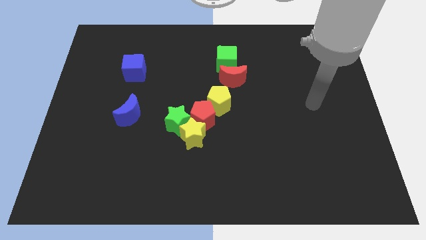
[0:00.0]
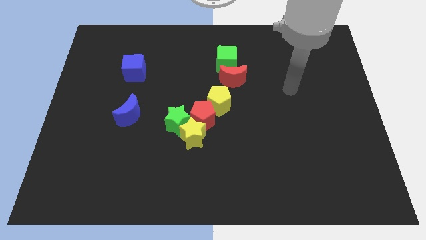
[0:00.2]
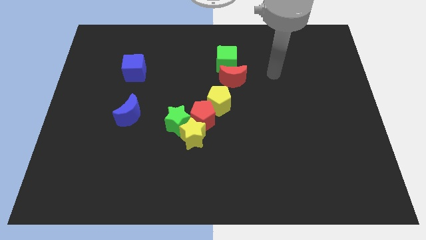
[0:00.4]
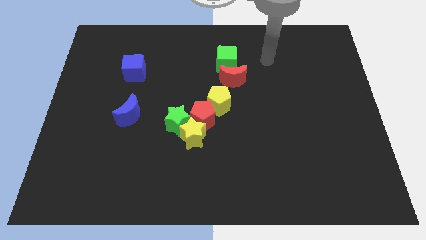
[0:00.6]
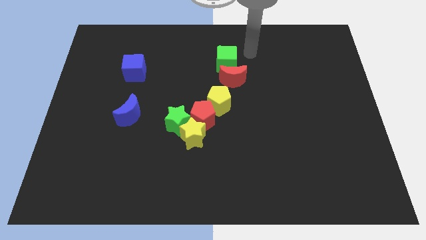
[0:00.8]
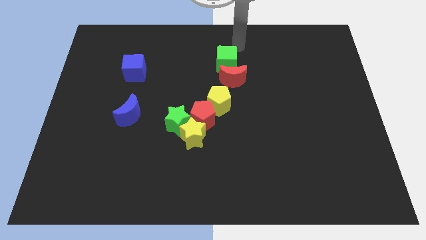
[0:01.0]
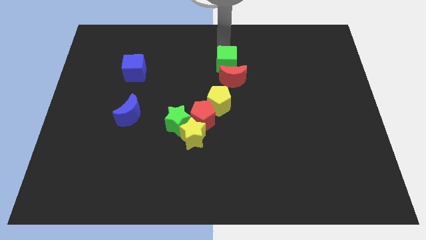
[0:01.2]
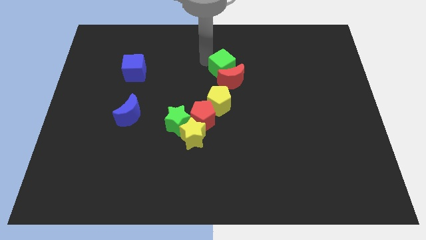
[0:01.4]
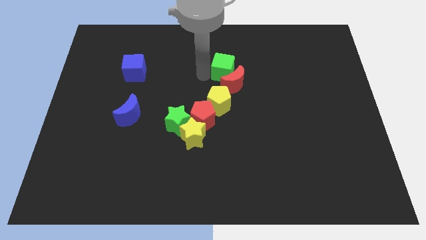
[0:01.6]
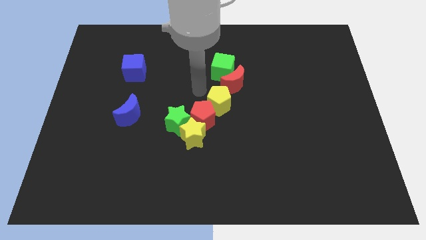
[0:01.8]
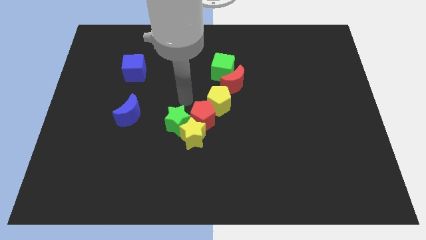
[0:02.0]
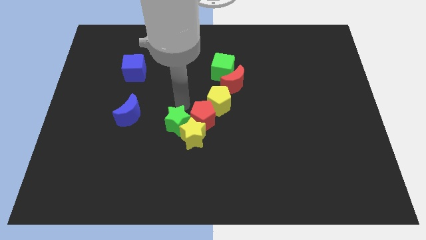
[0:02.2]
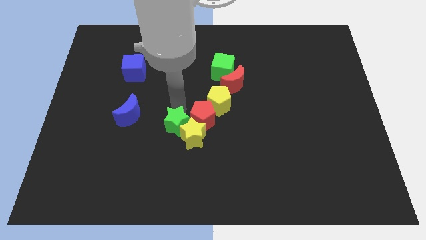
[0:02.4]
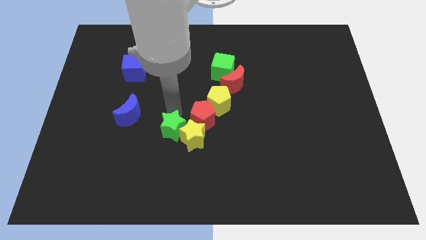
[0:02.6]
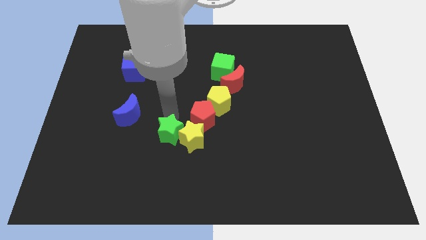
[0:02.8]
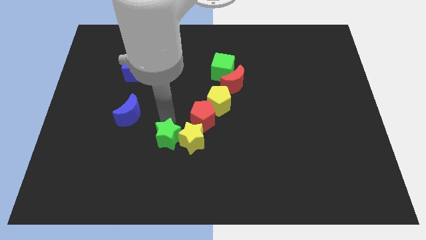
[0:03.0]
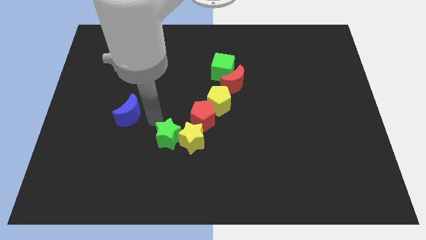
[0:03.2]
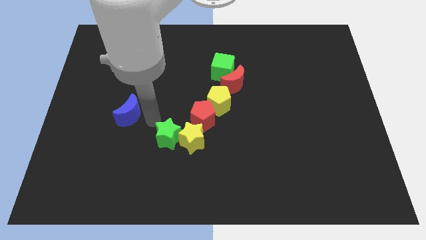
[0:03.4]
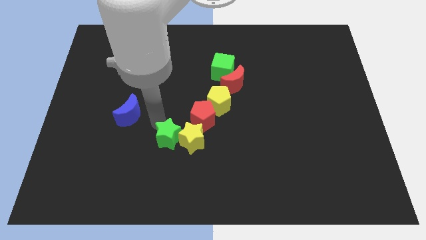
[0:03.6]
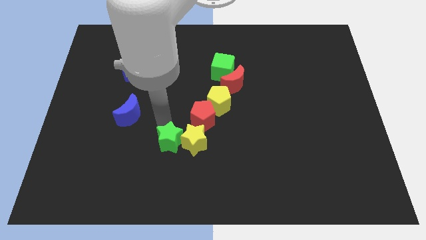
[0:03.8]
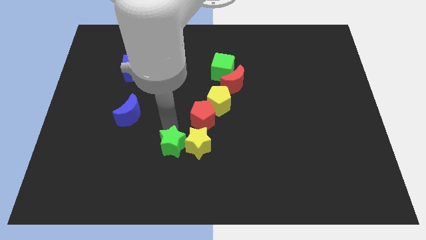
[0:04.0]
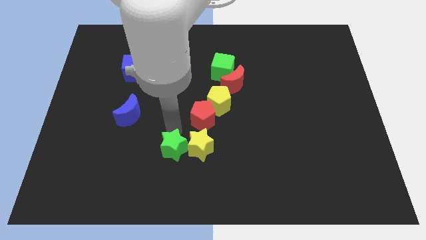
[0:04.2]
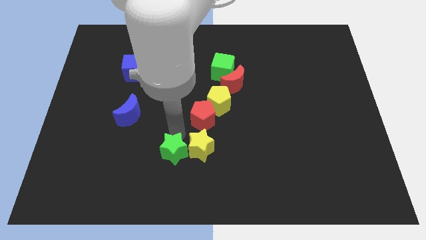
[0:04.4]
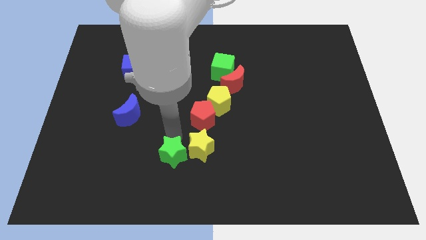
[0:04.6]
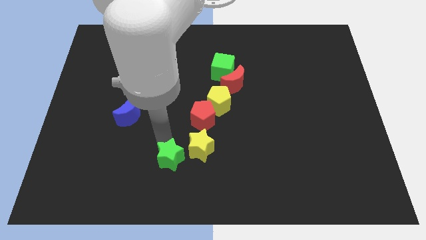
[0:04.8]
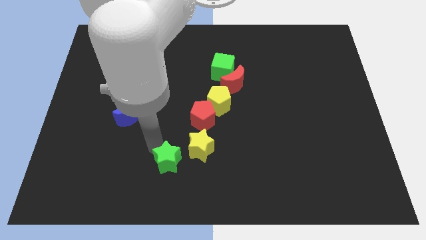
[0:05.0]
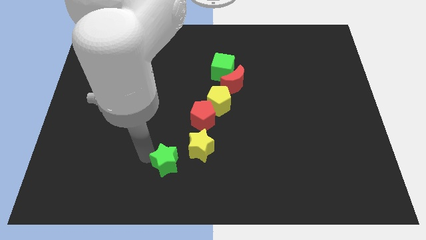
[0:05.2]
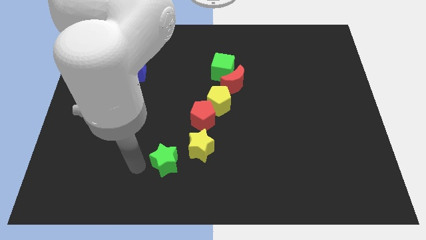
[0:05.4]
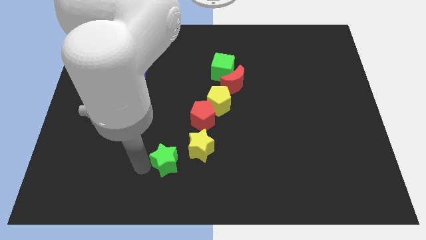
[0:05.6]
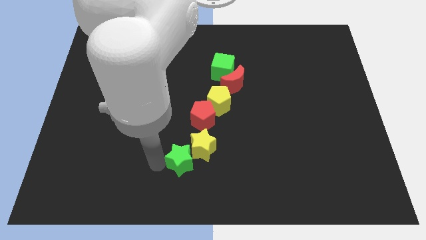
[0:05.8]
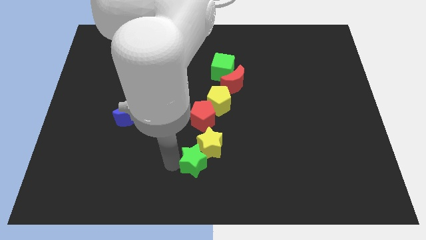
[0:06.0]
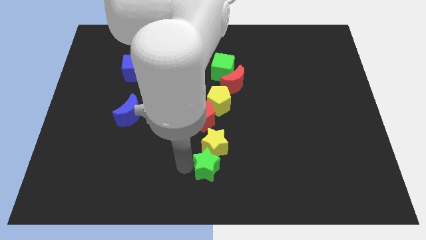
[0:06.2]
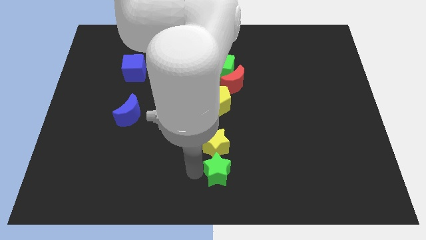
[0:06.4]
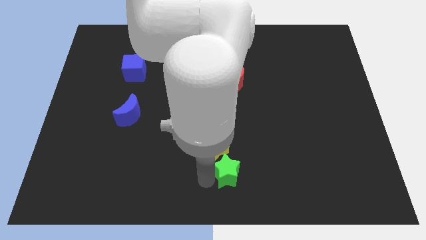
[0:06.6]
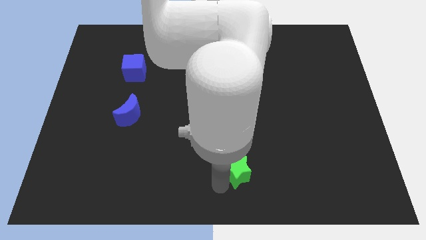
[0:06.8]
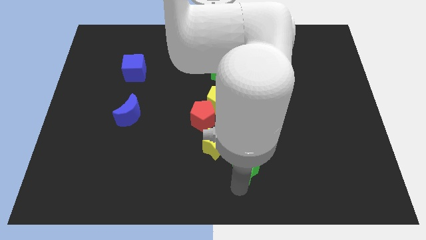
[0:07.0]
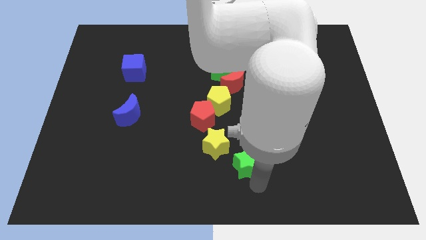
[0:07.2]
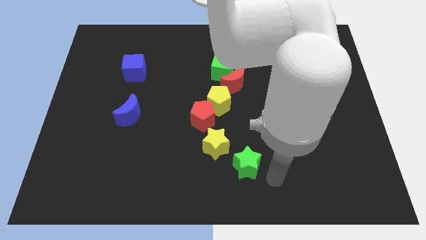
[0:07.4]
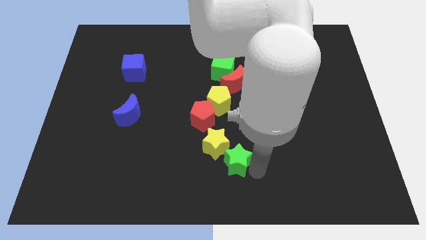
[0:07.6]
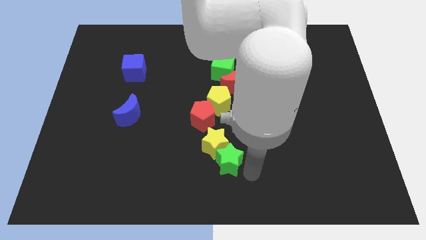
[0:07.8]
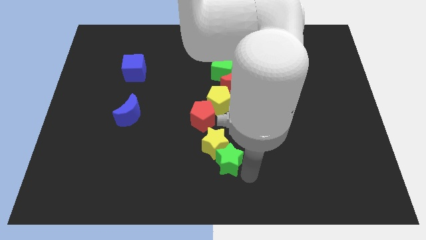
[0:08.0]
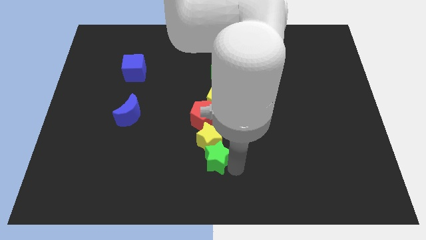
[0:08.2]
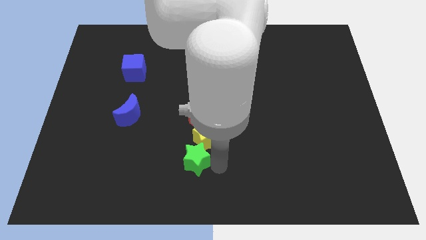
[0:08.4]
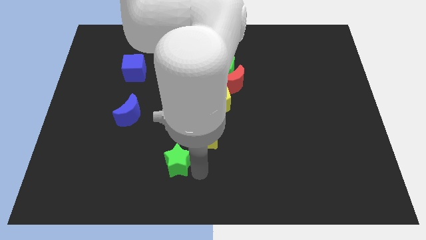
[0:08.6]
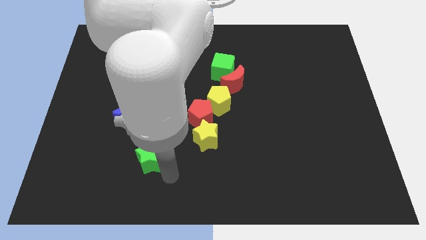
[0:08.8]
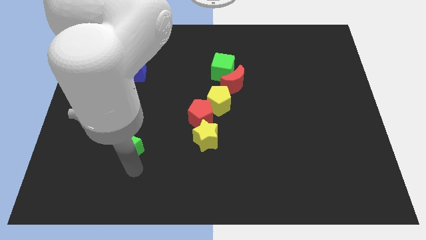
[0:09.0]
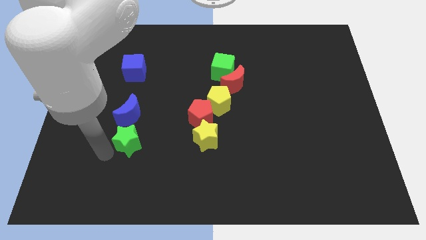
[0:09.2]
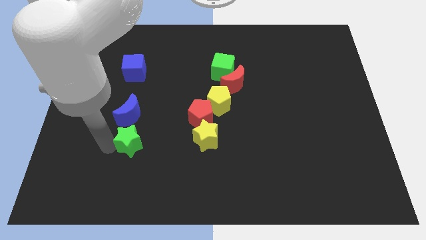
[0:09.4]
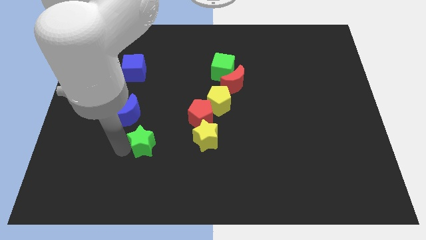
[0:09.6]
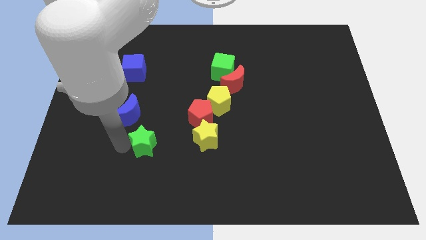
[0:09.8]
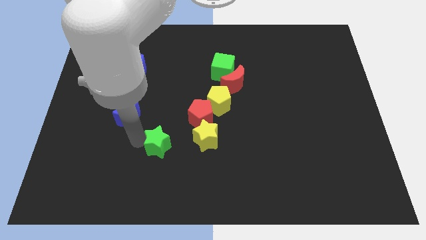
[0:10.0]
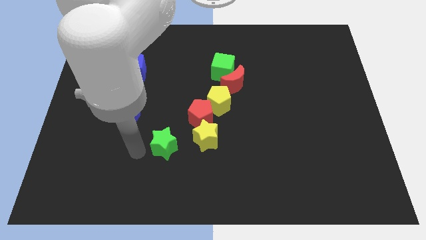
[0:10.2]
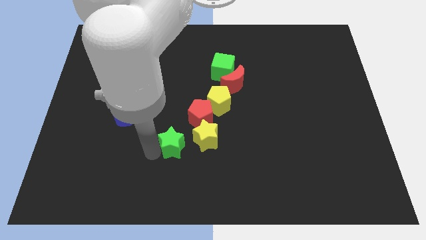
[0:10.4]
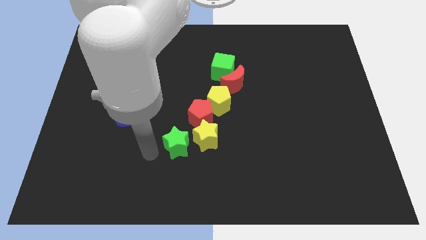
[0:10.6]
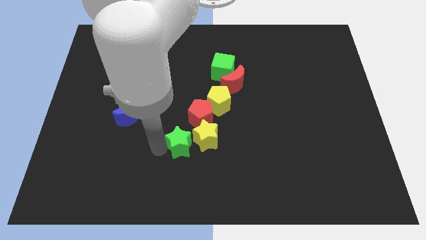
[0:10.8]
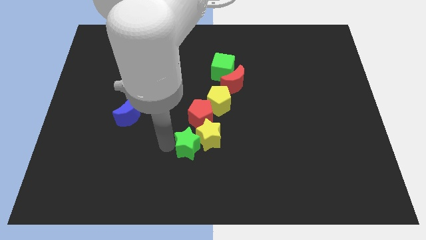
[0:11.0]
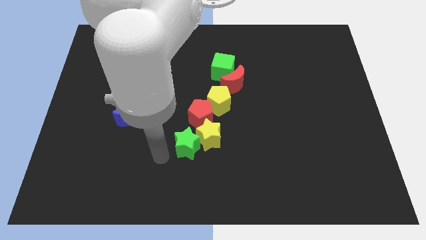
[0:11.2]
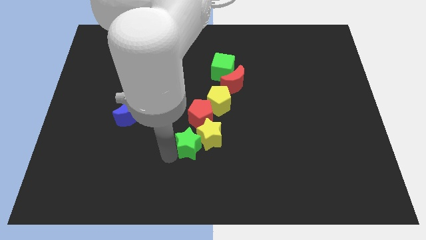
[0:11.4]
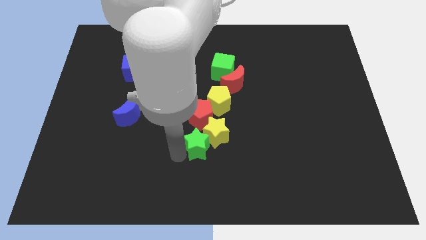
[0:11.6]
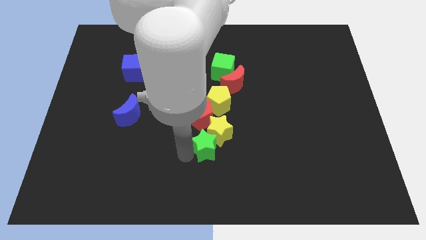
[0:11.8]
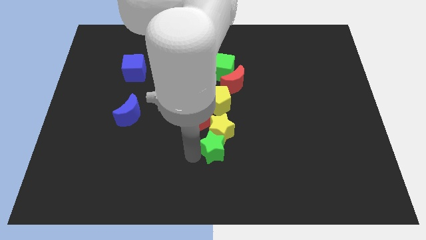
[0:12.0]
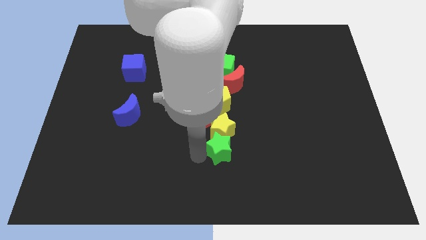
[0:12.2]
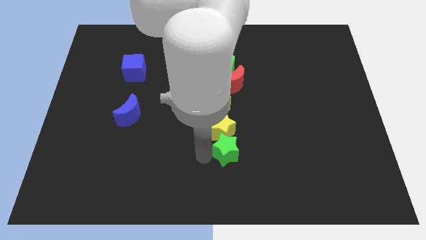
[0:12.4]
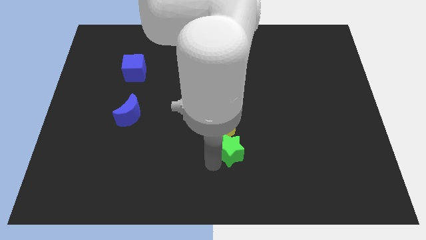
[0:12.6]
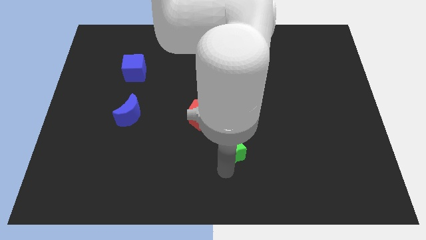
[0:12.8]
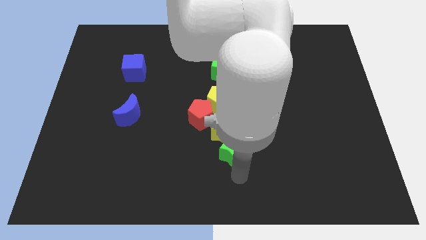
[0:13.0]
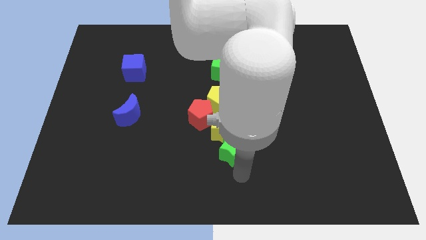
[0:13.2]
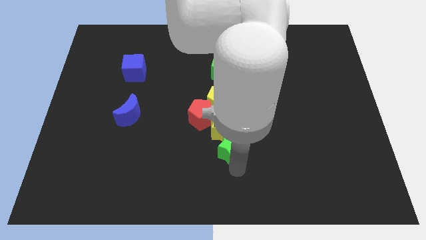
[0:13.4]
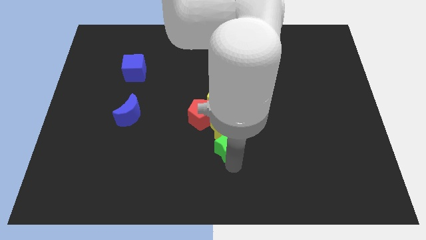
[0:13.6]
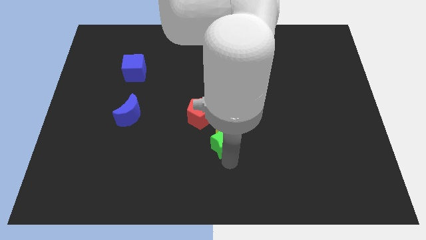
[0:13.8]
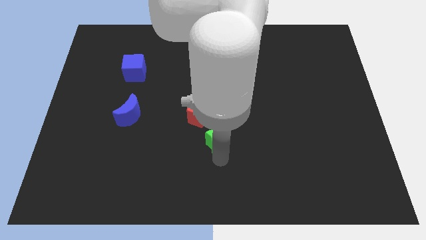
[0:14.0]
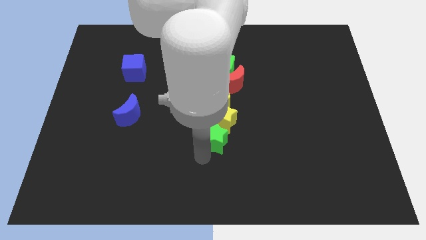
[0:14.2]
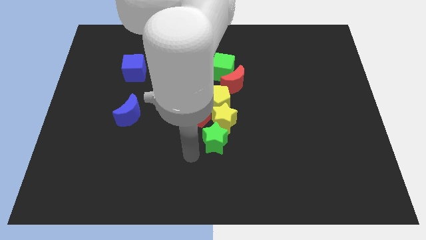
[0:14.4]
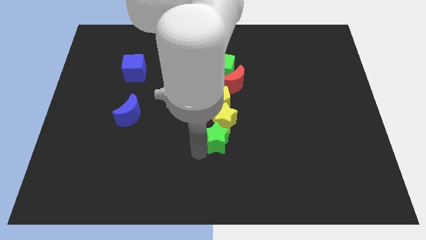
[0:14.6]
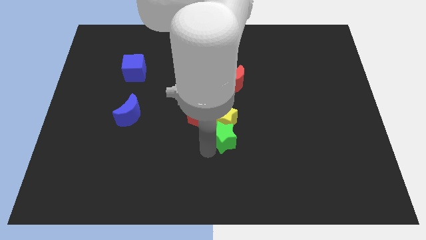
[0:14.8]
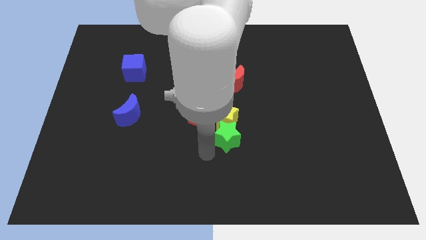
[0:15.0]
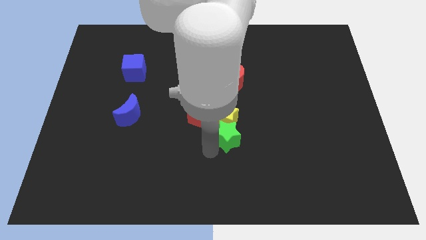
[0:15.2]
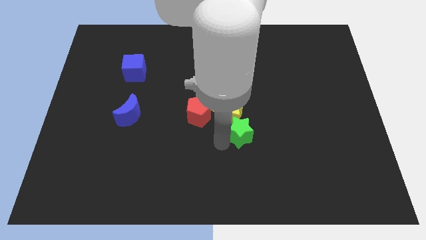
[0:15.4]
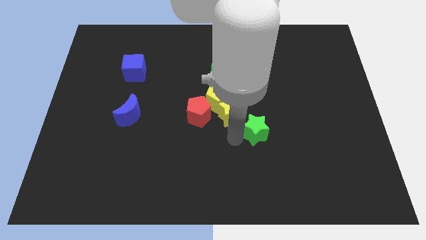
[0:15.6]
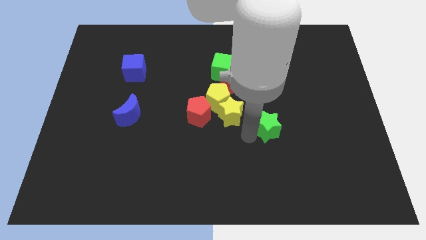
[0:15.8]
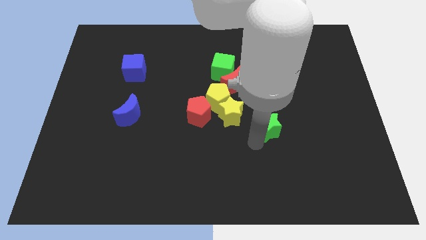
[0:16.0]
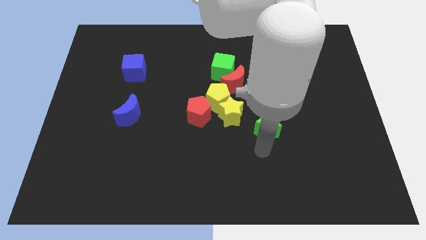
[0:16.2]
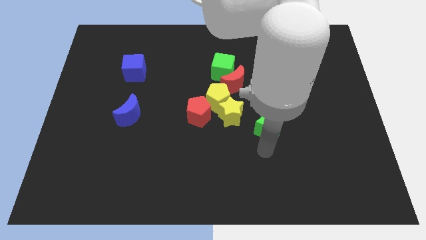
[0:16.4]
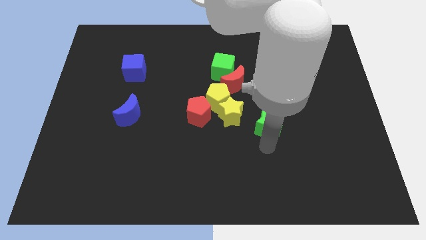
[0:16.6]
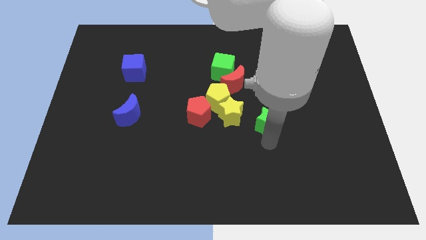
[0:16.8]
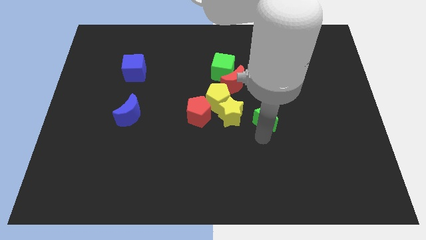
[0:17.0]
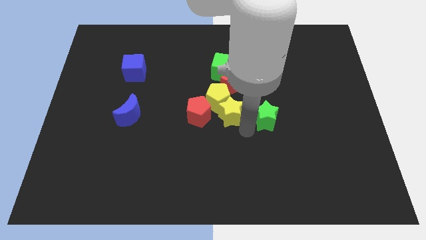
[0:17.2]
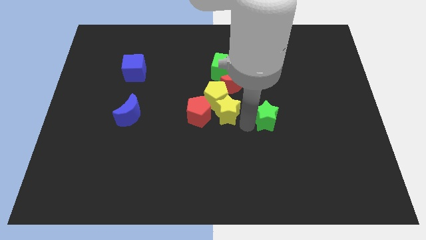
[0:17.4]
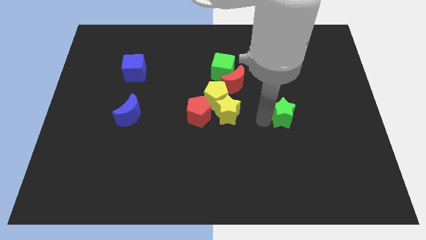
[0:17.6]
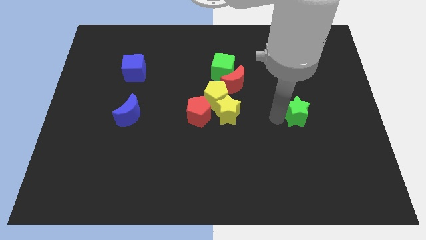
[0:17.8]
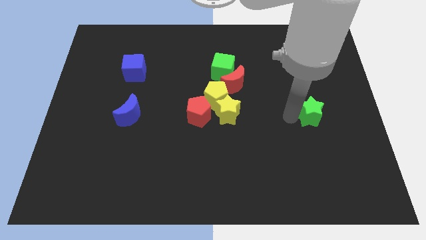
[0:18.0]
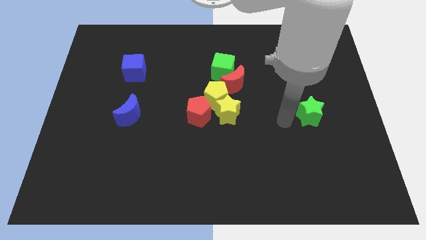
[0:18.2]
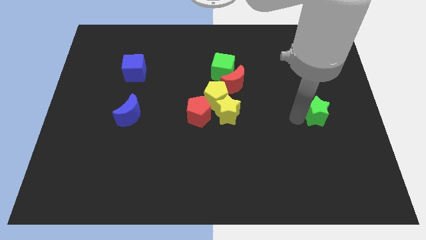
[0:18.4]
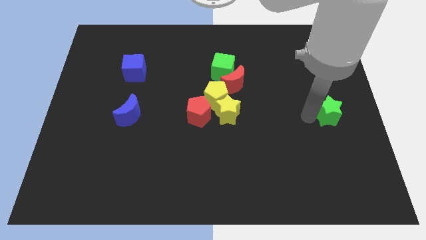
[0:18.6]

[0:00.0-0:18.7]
push the green star to the right side
